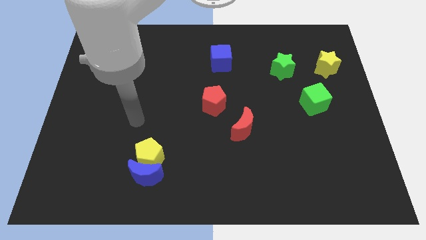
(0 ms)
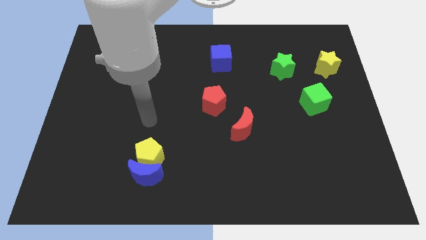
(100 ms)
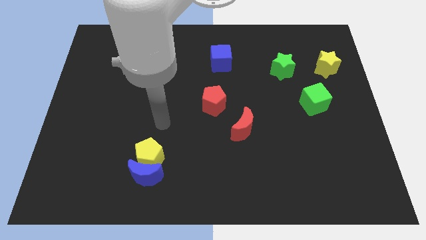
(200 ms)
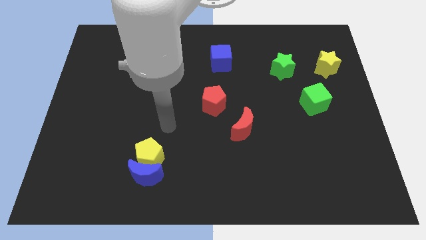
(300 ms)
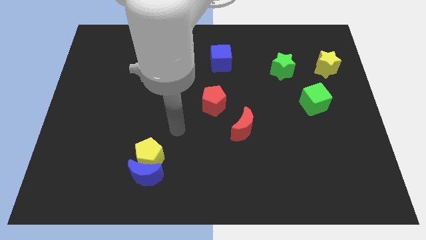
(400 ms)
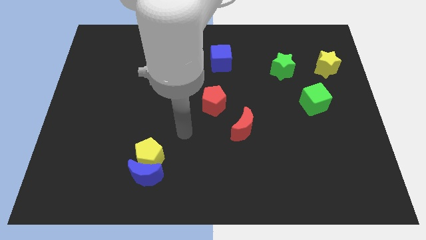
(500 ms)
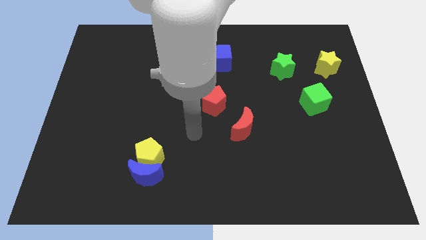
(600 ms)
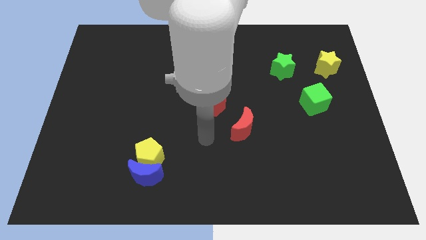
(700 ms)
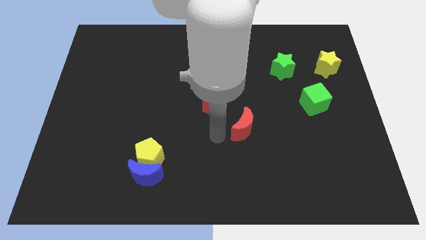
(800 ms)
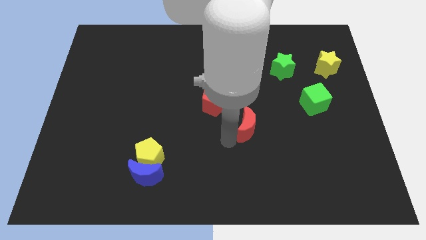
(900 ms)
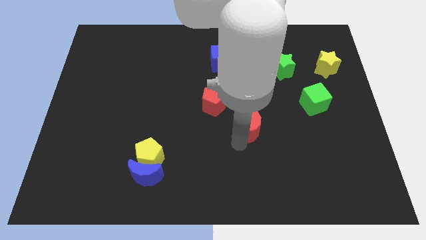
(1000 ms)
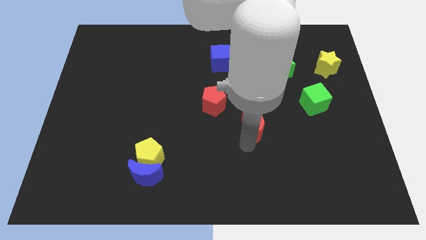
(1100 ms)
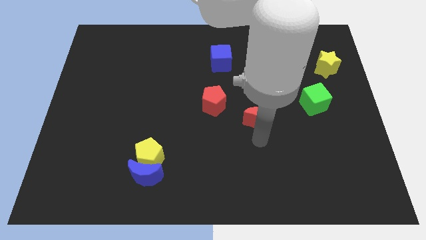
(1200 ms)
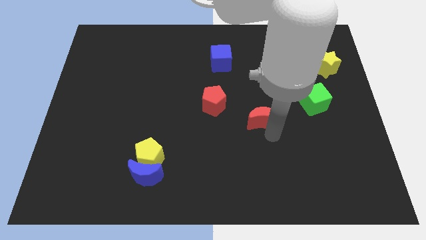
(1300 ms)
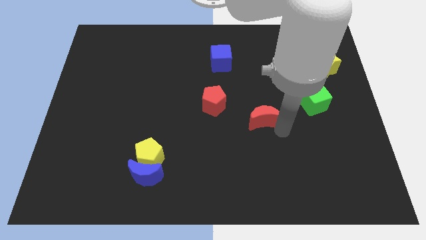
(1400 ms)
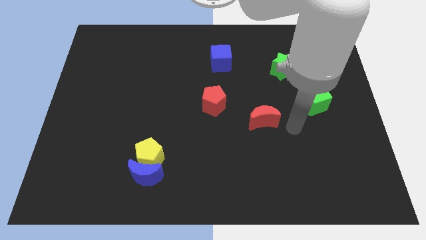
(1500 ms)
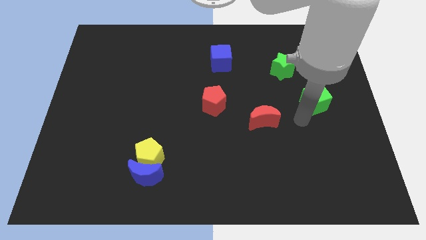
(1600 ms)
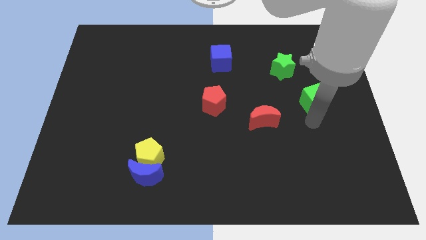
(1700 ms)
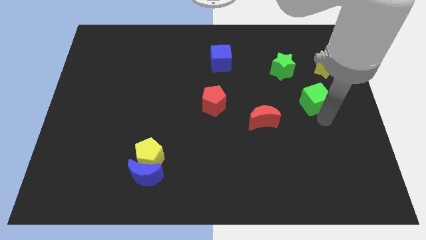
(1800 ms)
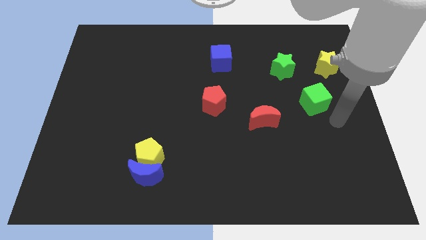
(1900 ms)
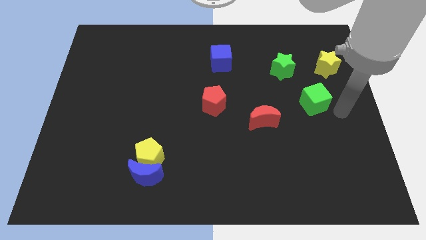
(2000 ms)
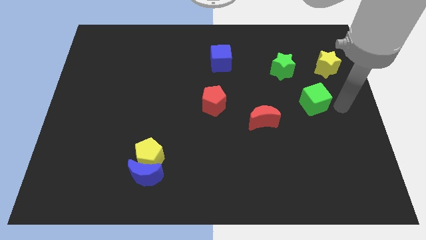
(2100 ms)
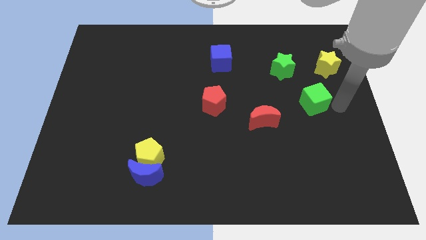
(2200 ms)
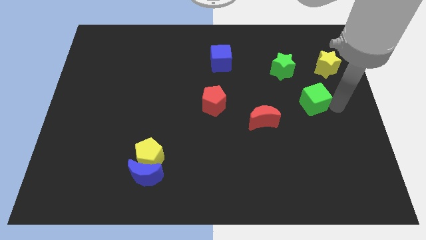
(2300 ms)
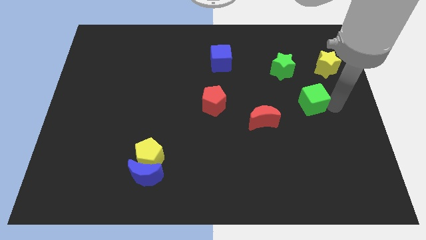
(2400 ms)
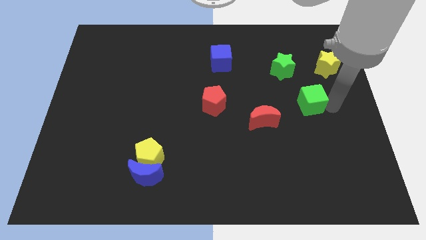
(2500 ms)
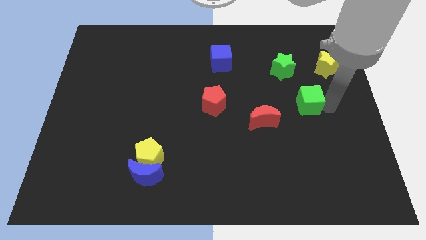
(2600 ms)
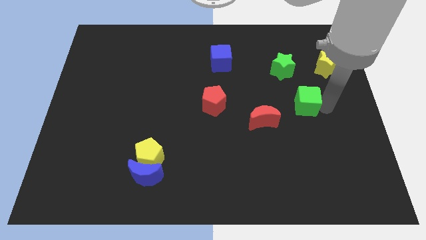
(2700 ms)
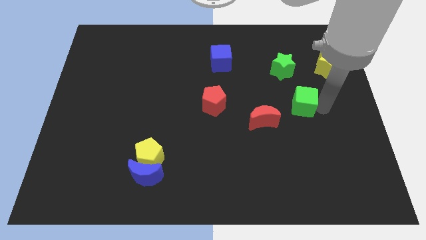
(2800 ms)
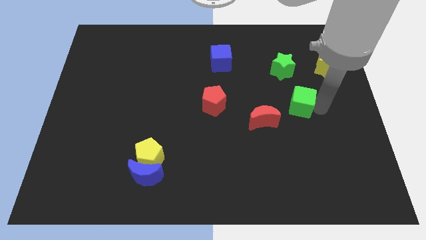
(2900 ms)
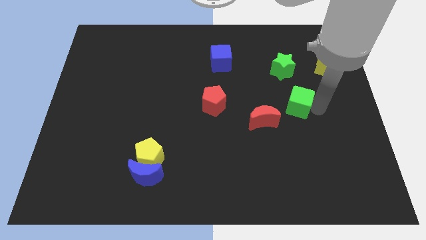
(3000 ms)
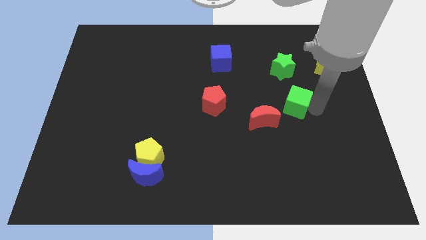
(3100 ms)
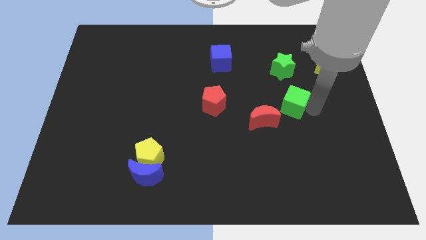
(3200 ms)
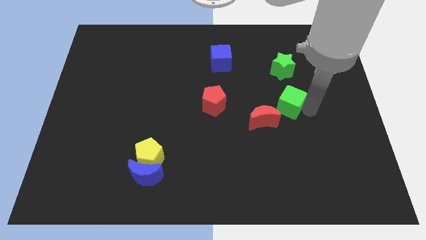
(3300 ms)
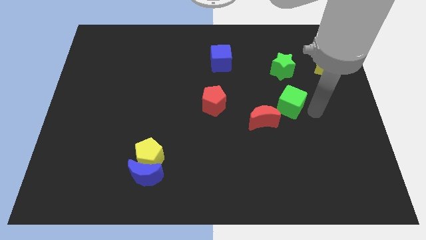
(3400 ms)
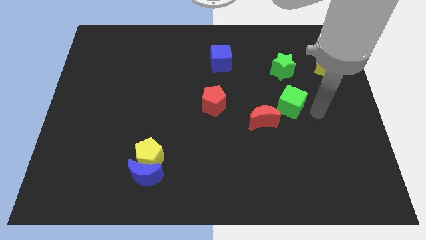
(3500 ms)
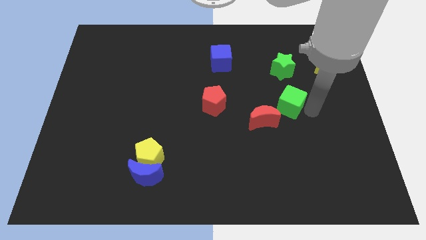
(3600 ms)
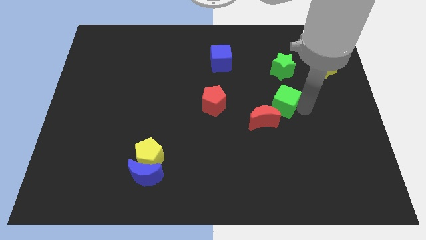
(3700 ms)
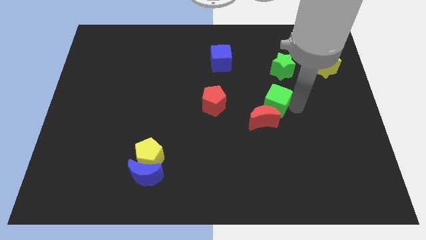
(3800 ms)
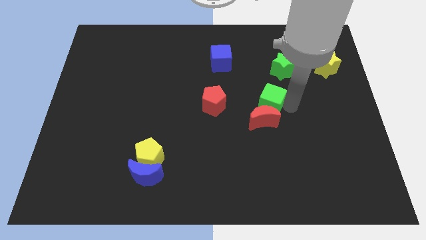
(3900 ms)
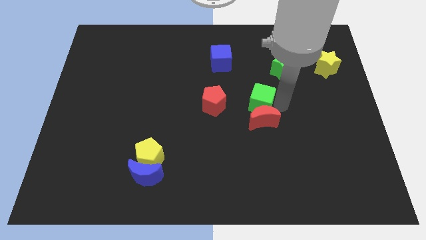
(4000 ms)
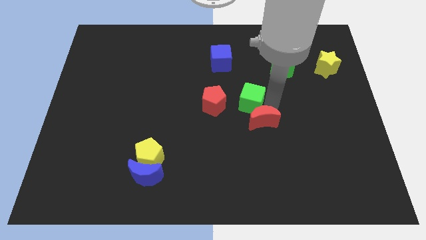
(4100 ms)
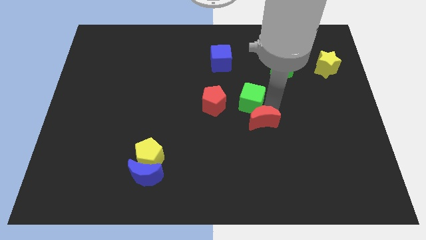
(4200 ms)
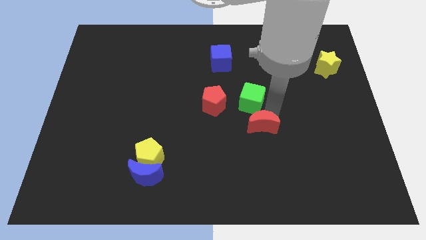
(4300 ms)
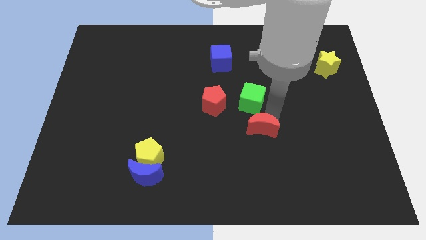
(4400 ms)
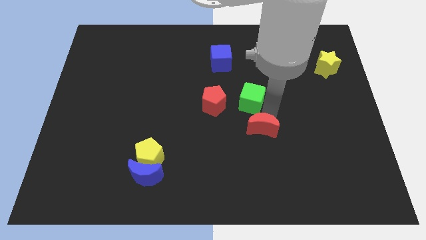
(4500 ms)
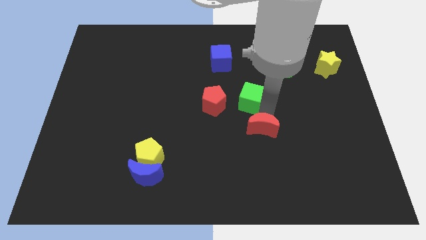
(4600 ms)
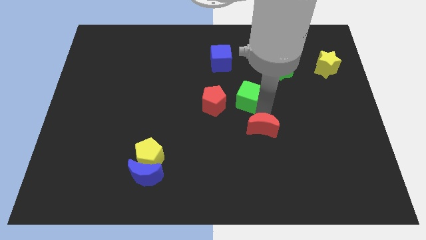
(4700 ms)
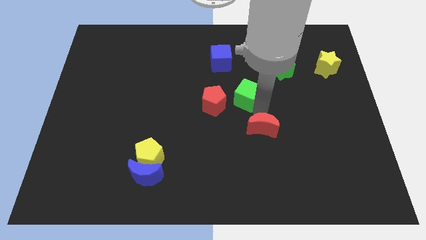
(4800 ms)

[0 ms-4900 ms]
move the green cube diagonally up and to the right of the red pentagon

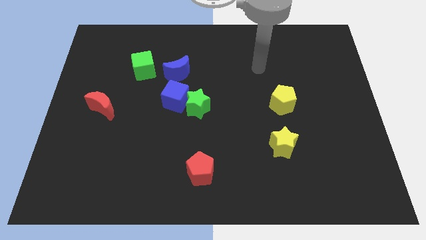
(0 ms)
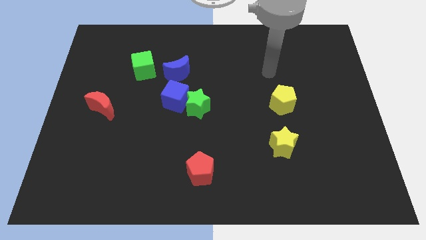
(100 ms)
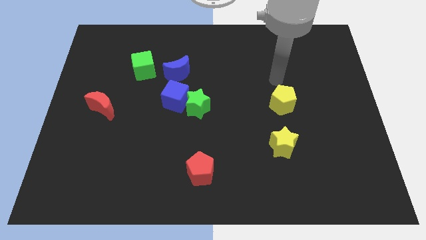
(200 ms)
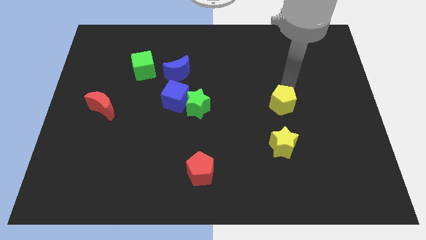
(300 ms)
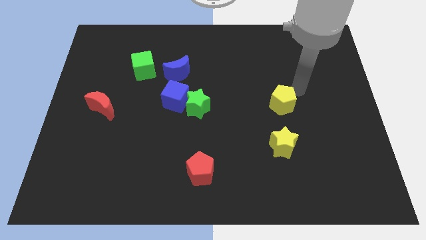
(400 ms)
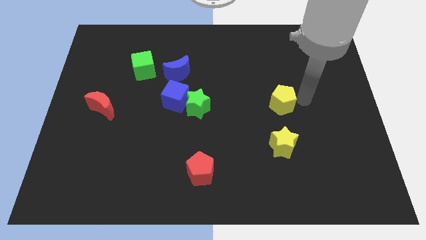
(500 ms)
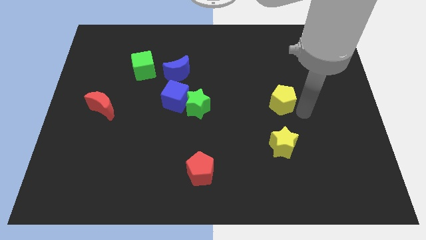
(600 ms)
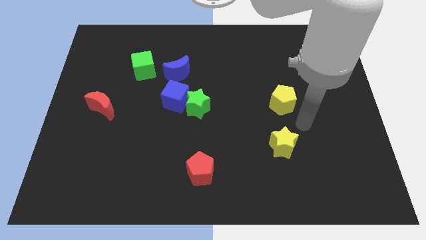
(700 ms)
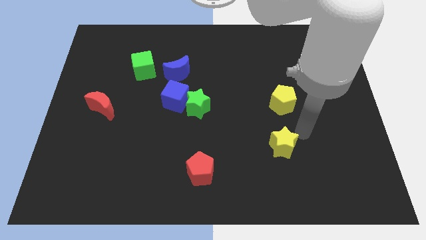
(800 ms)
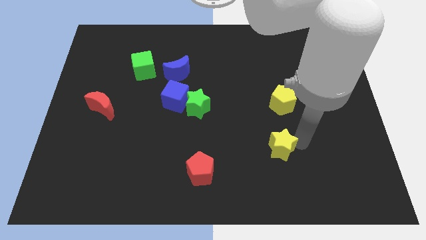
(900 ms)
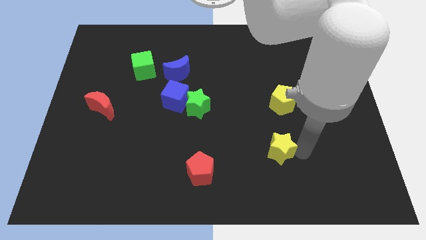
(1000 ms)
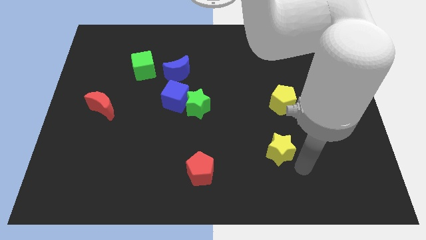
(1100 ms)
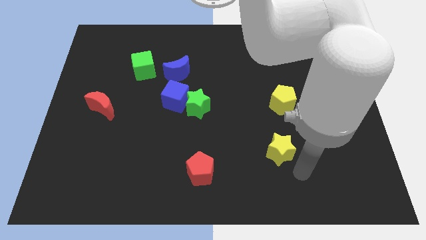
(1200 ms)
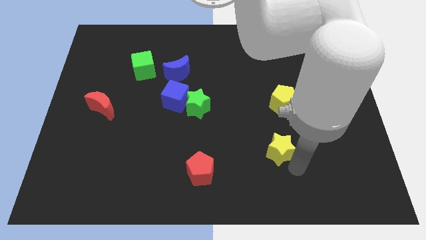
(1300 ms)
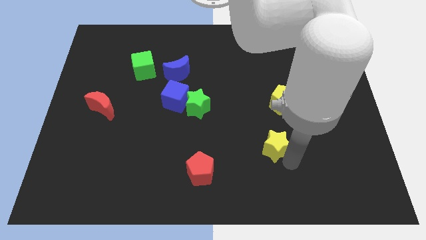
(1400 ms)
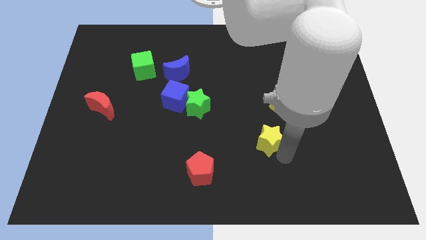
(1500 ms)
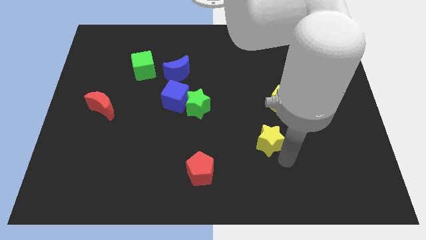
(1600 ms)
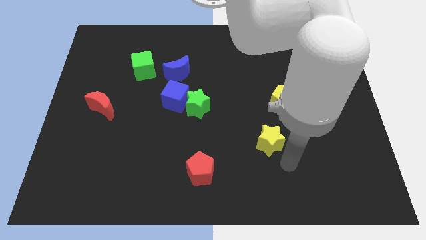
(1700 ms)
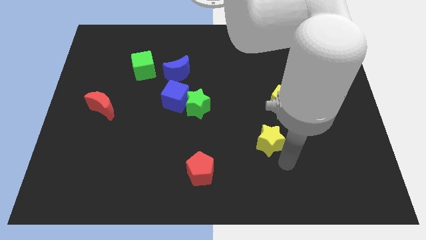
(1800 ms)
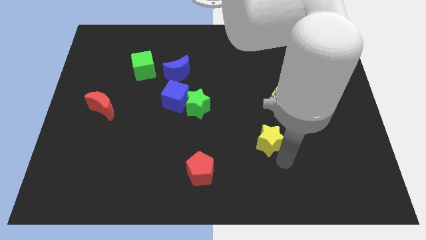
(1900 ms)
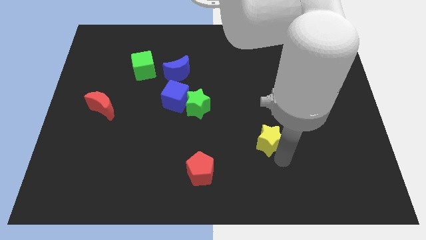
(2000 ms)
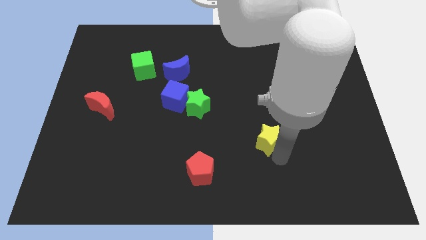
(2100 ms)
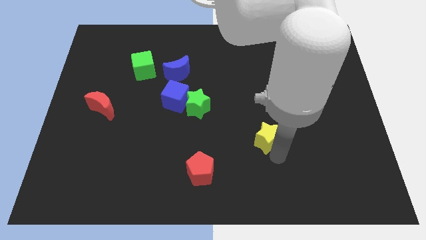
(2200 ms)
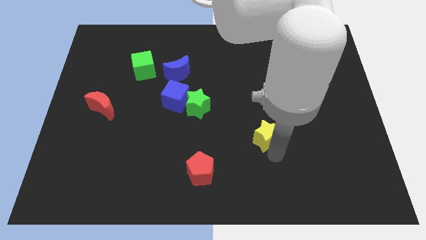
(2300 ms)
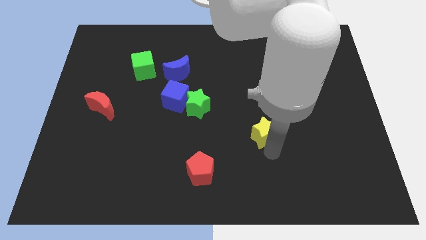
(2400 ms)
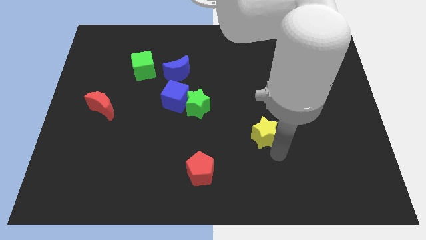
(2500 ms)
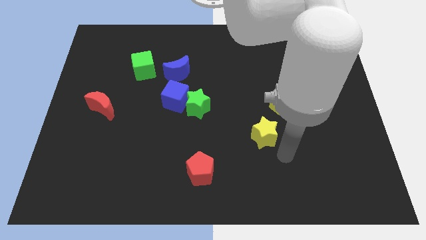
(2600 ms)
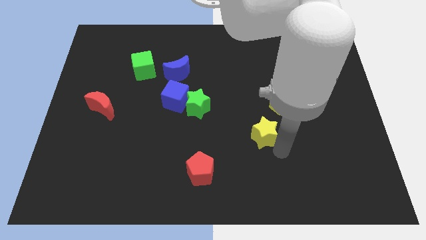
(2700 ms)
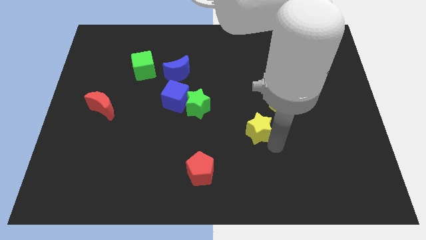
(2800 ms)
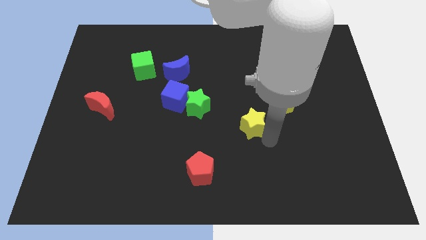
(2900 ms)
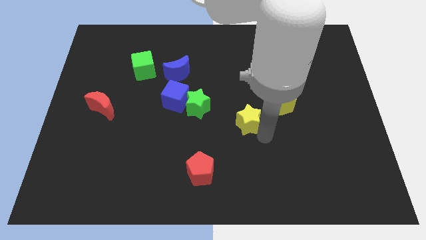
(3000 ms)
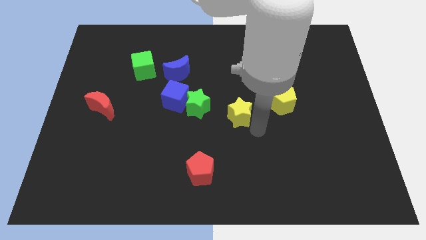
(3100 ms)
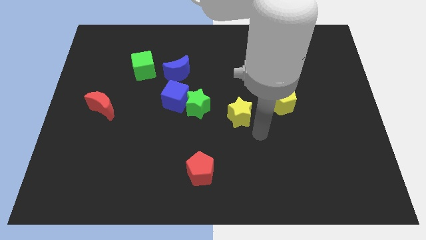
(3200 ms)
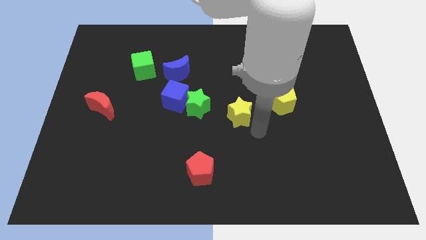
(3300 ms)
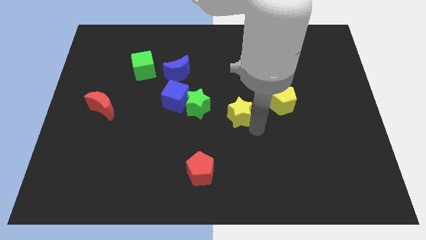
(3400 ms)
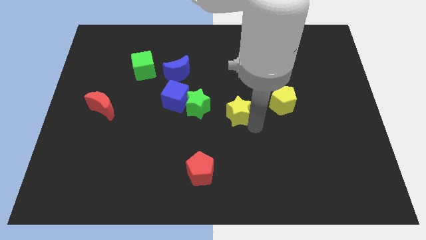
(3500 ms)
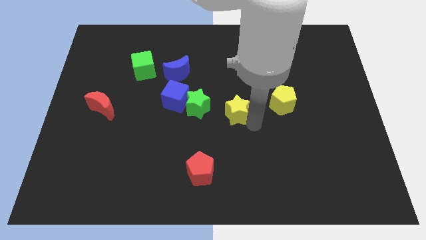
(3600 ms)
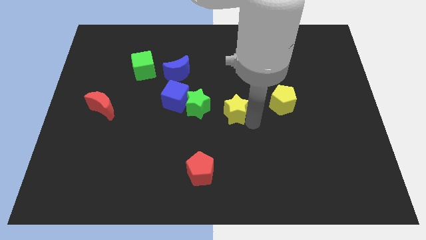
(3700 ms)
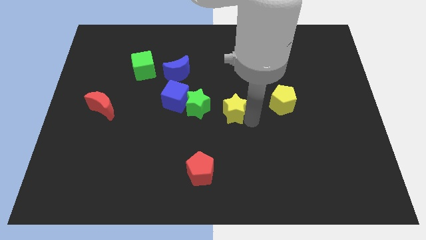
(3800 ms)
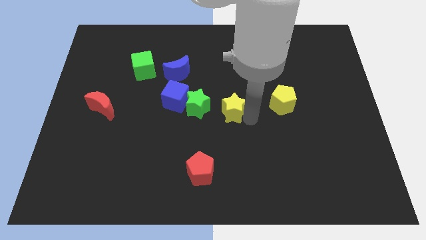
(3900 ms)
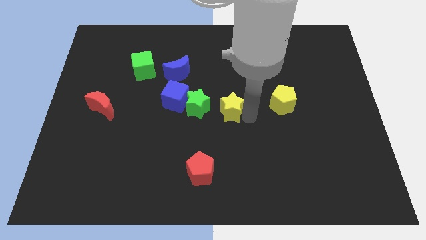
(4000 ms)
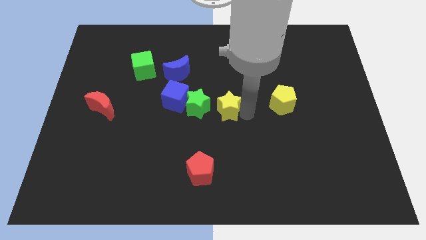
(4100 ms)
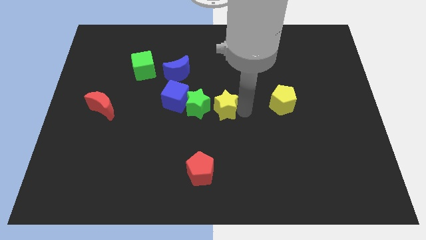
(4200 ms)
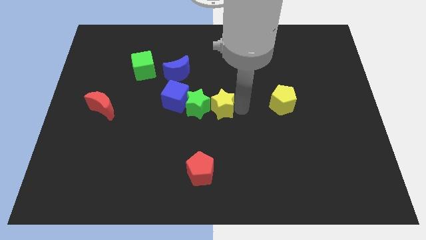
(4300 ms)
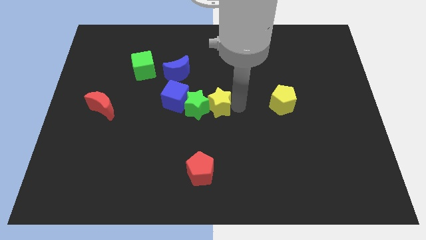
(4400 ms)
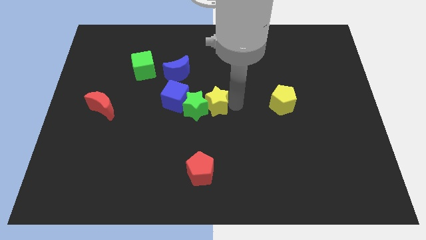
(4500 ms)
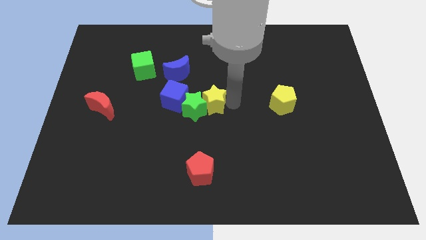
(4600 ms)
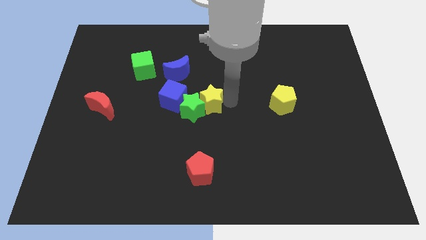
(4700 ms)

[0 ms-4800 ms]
put the yellow star to the bottom right of the blue moon
